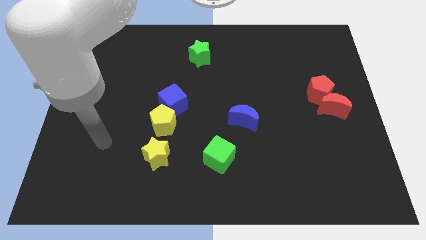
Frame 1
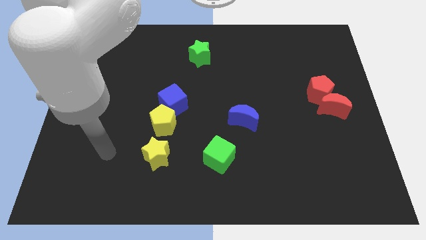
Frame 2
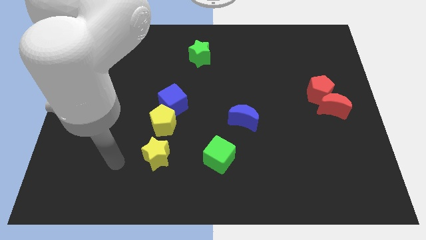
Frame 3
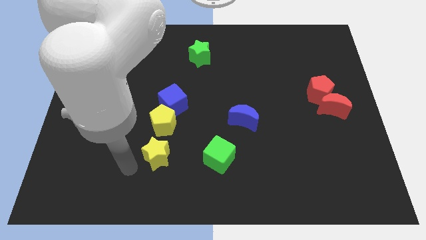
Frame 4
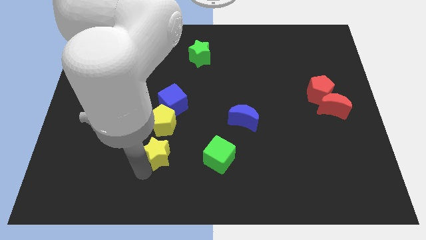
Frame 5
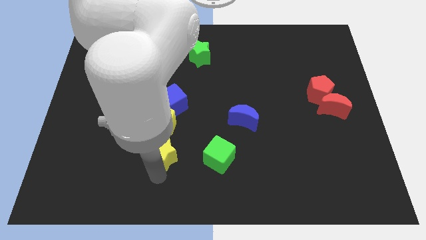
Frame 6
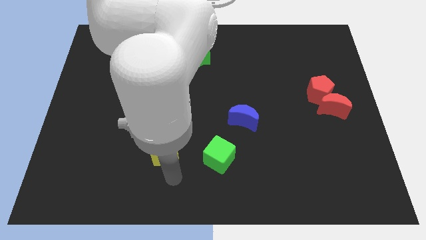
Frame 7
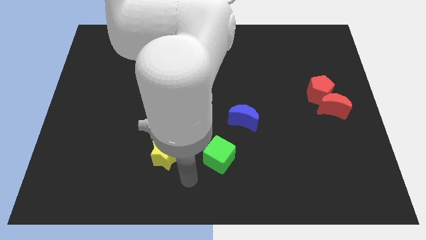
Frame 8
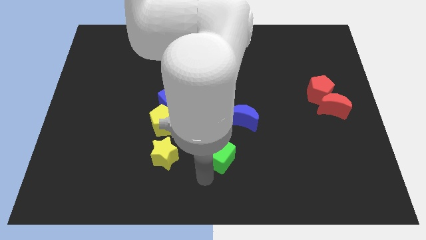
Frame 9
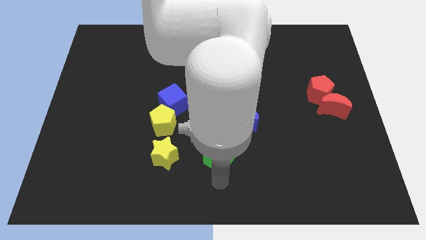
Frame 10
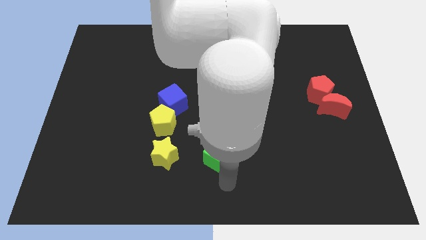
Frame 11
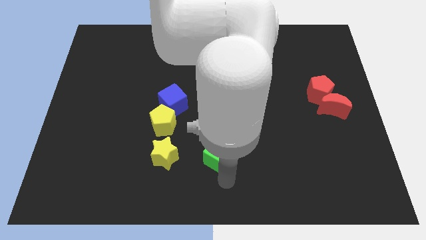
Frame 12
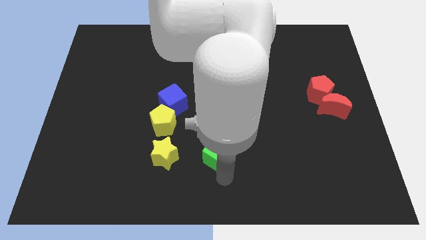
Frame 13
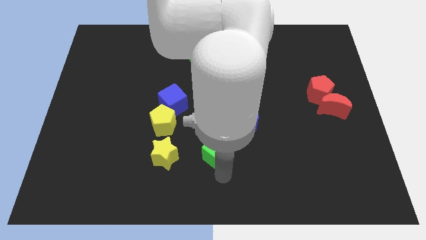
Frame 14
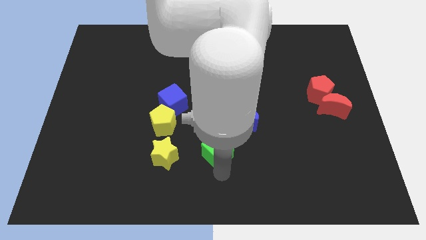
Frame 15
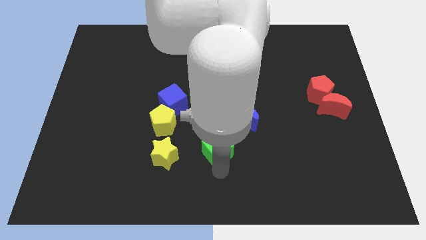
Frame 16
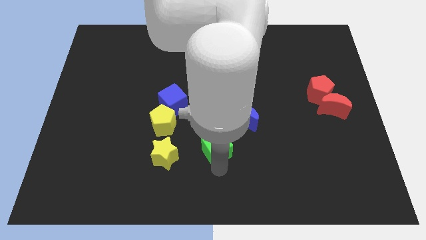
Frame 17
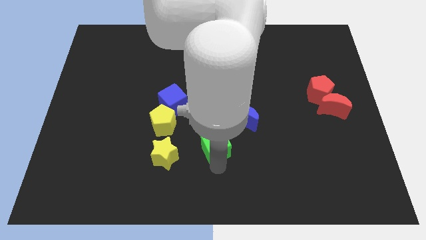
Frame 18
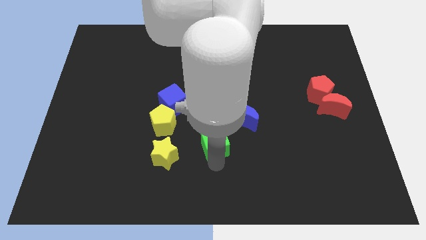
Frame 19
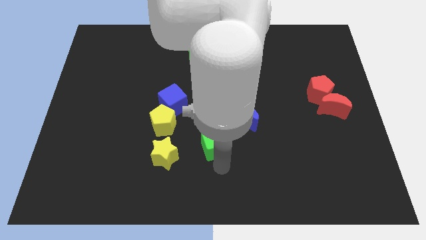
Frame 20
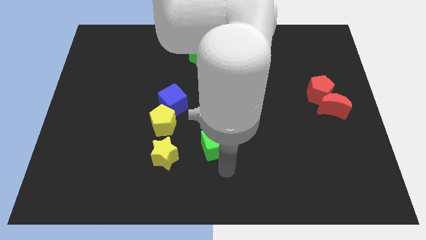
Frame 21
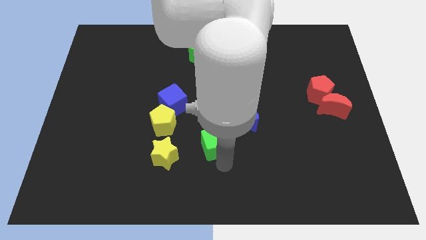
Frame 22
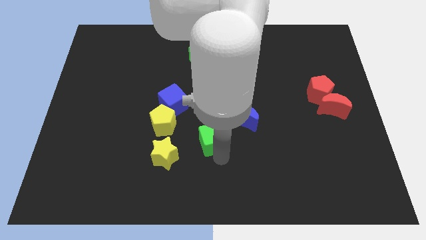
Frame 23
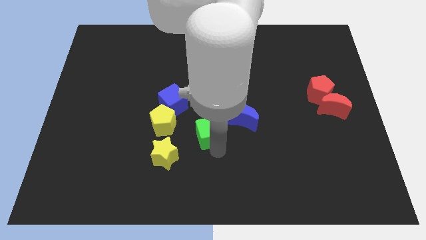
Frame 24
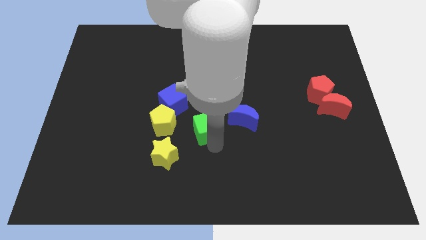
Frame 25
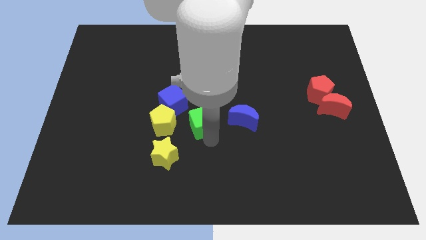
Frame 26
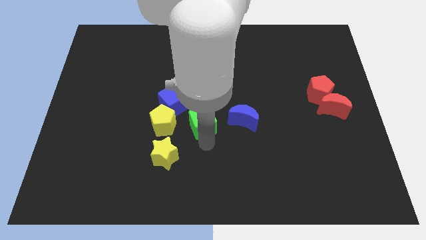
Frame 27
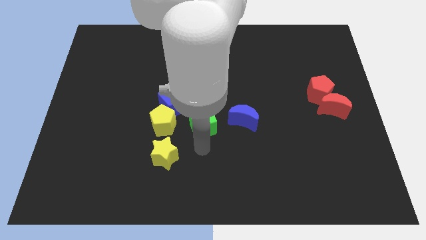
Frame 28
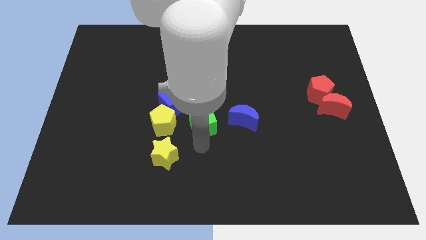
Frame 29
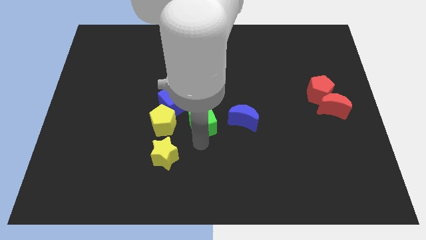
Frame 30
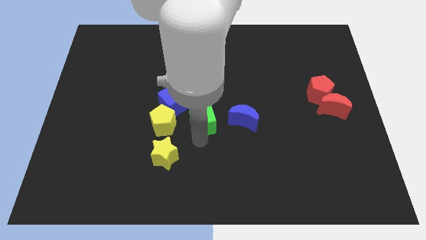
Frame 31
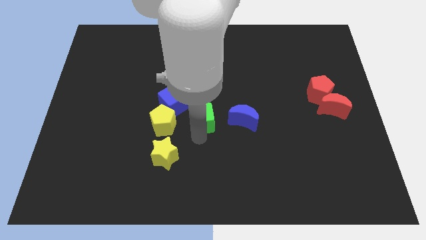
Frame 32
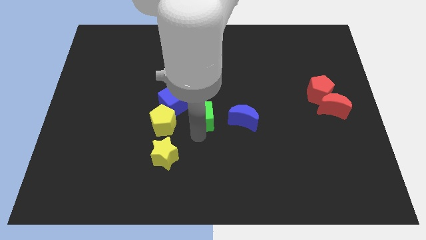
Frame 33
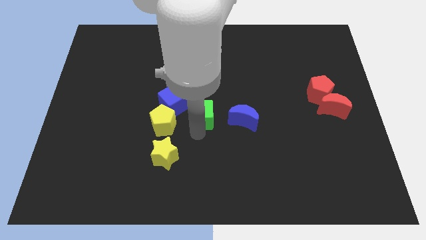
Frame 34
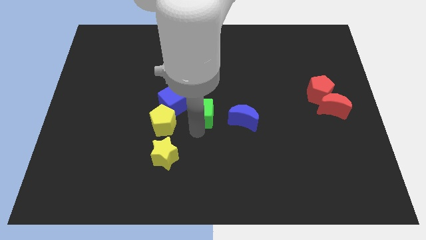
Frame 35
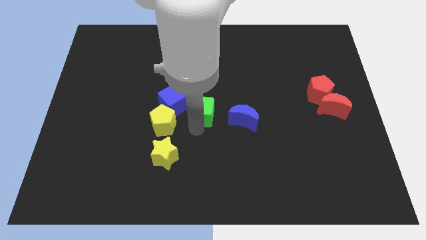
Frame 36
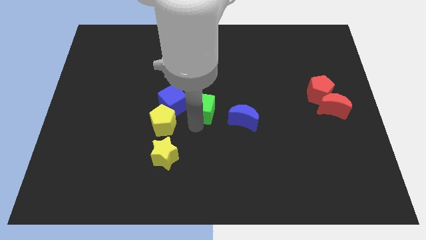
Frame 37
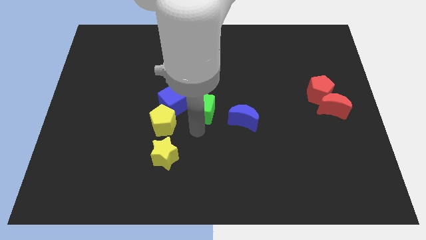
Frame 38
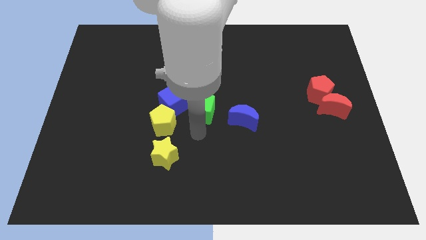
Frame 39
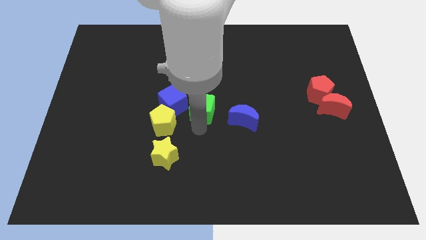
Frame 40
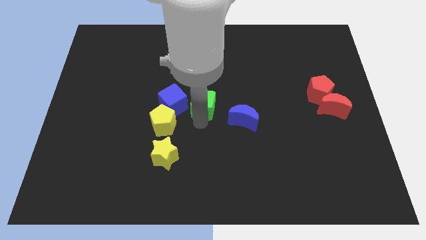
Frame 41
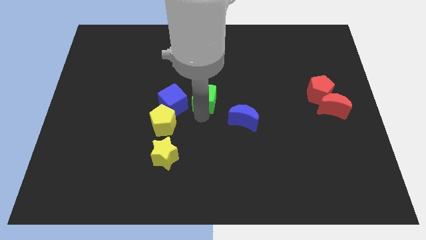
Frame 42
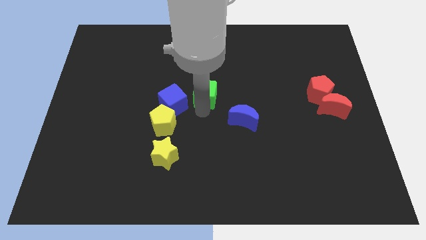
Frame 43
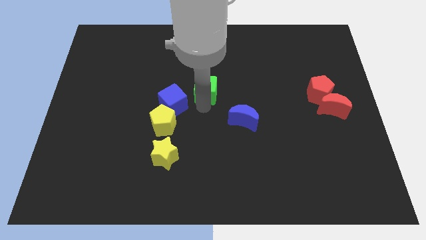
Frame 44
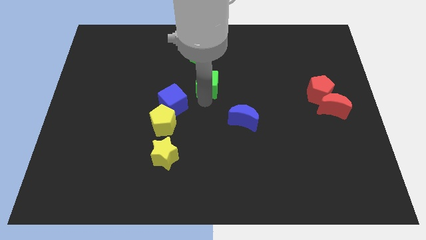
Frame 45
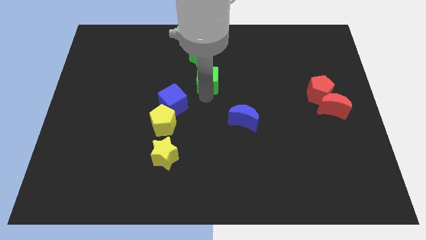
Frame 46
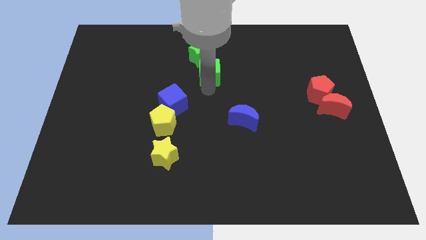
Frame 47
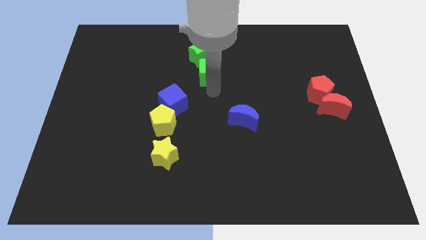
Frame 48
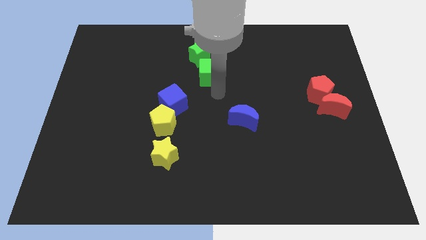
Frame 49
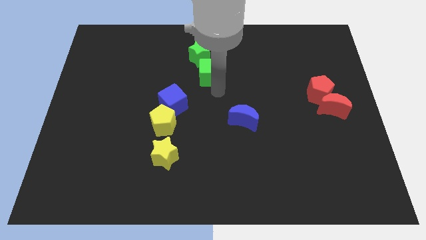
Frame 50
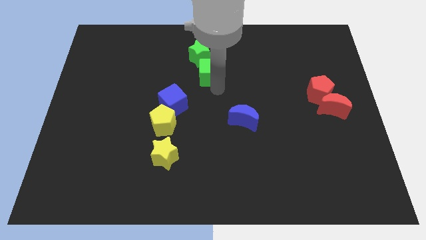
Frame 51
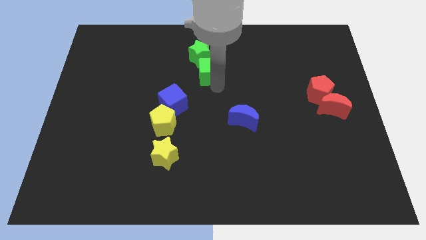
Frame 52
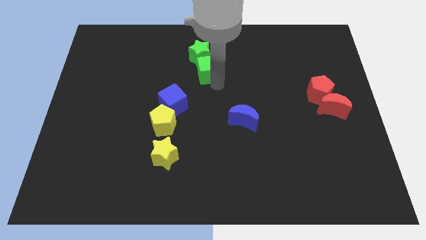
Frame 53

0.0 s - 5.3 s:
slide the green cube close to the green star

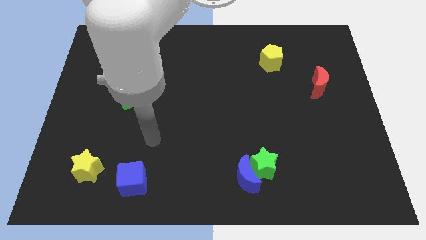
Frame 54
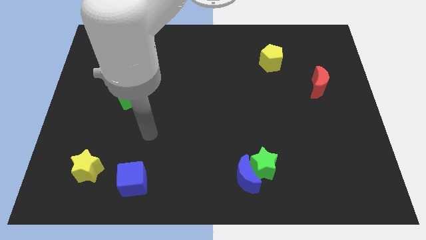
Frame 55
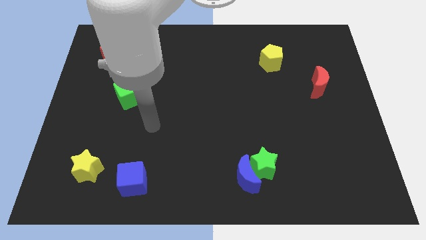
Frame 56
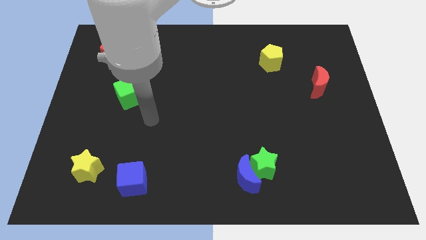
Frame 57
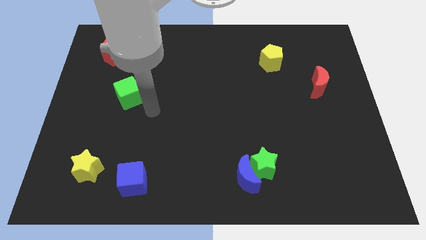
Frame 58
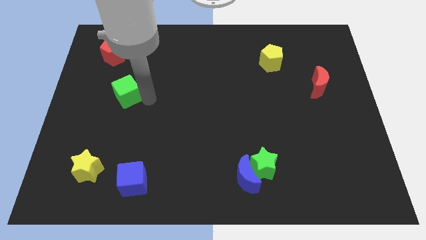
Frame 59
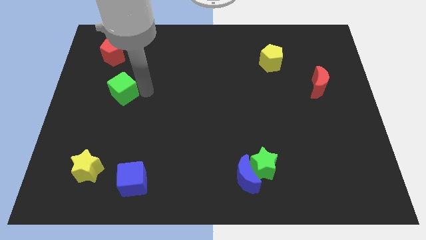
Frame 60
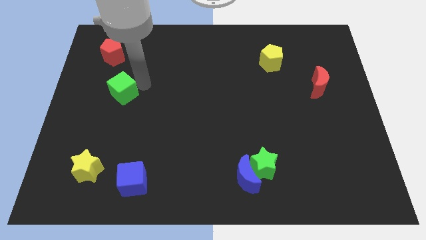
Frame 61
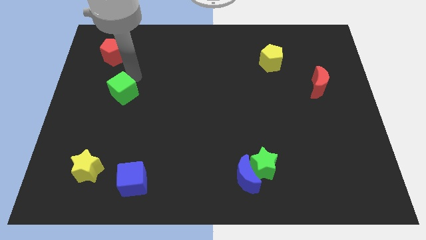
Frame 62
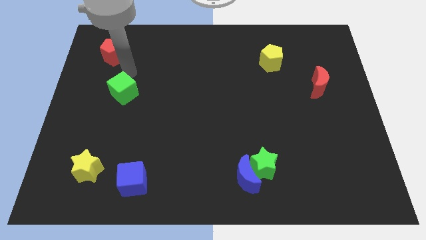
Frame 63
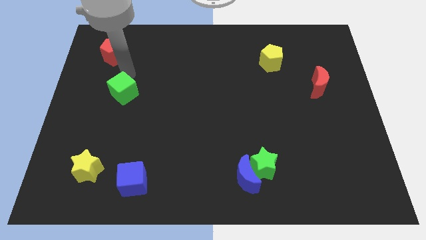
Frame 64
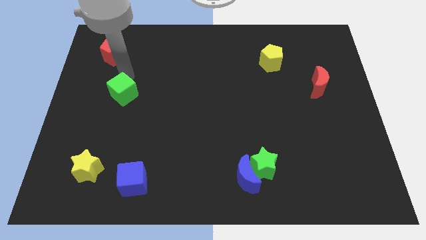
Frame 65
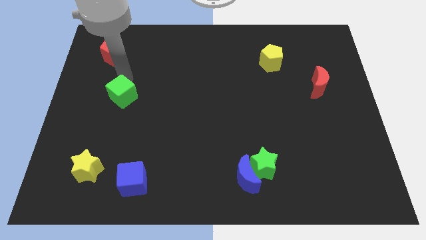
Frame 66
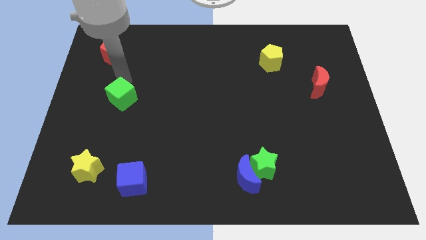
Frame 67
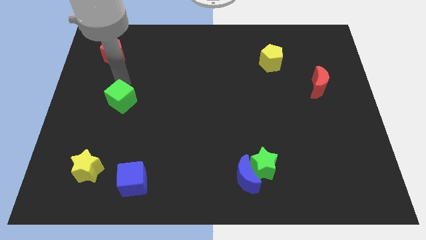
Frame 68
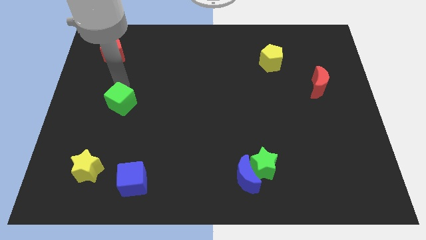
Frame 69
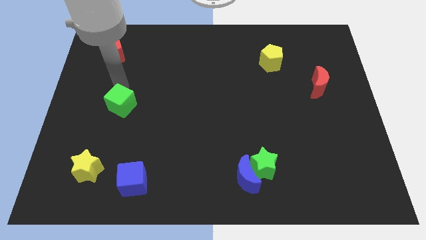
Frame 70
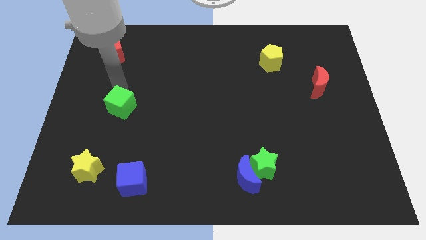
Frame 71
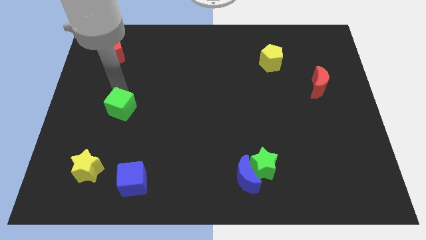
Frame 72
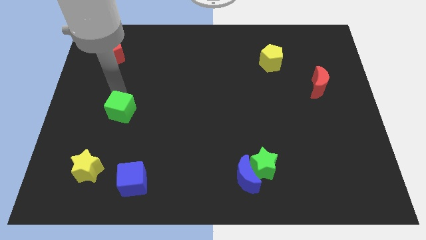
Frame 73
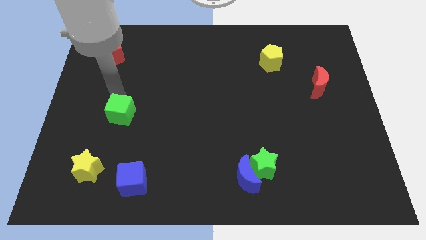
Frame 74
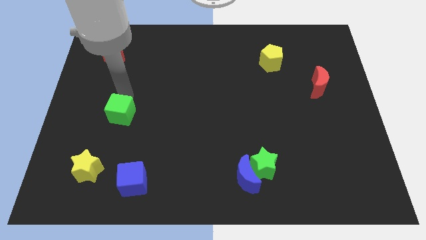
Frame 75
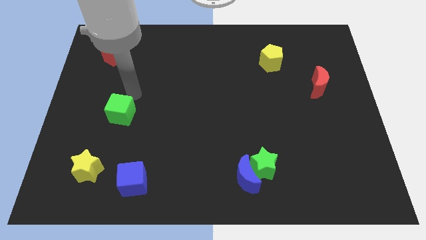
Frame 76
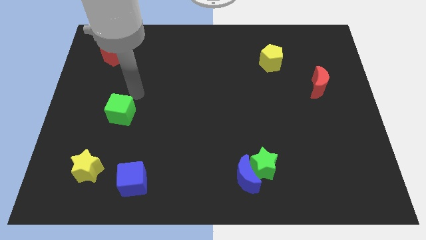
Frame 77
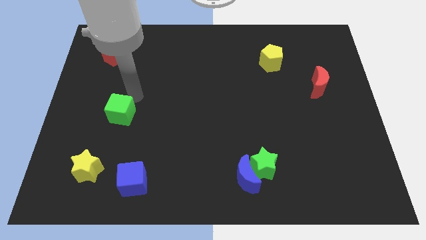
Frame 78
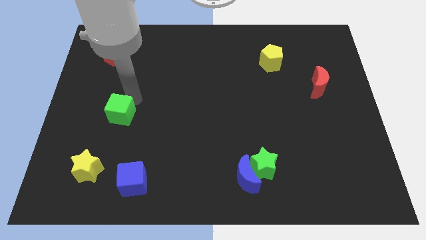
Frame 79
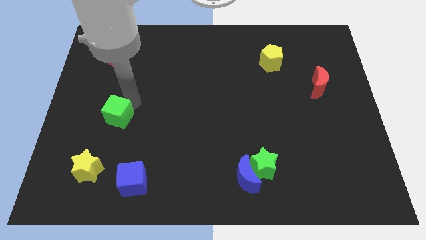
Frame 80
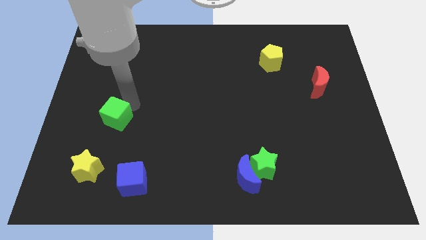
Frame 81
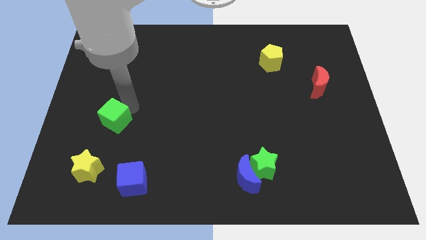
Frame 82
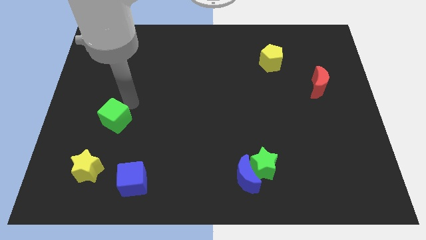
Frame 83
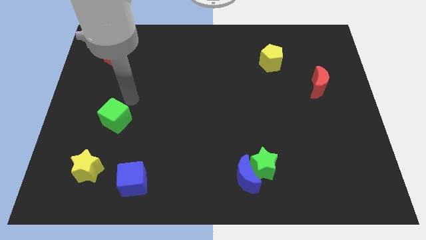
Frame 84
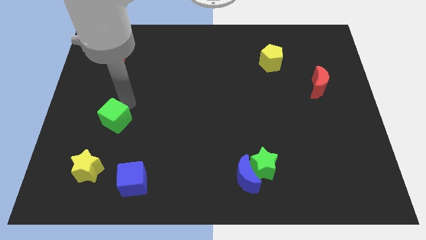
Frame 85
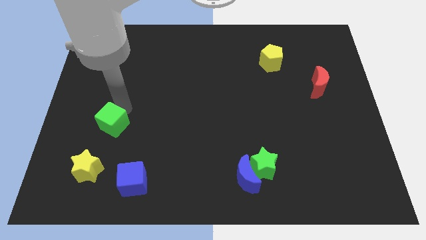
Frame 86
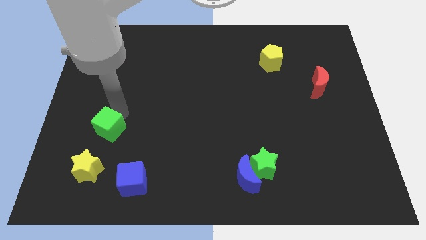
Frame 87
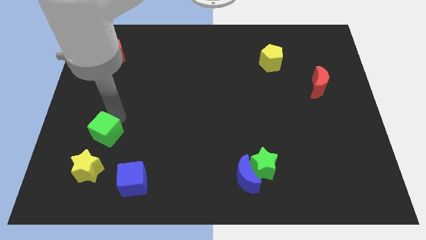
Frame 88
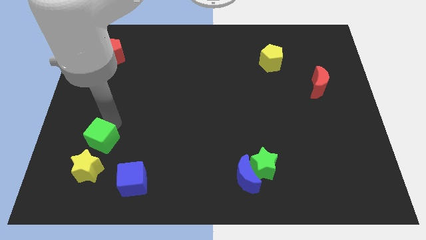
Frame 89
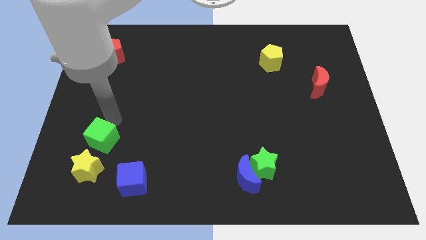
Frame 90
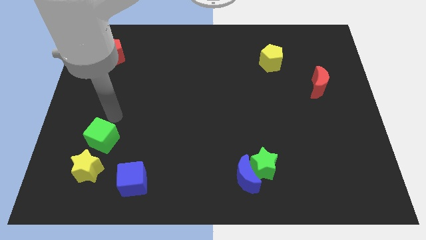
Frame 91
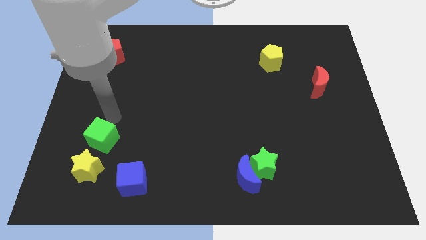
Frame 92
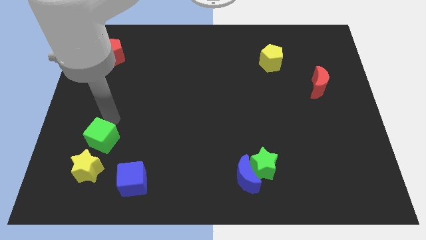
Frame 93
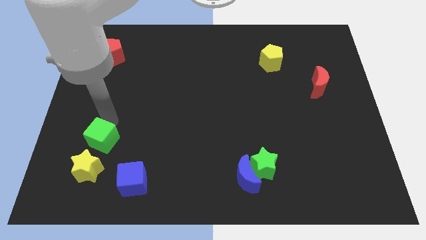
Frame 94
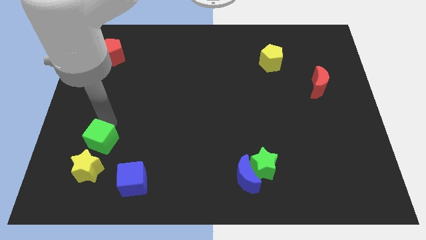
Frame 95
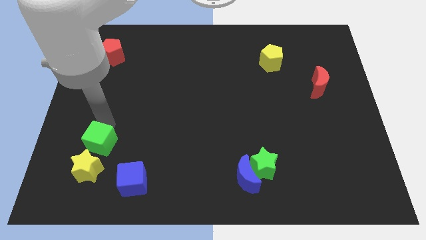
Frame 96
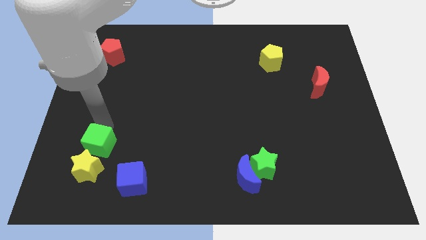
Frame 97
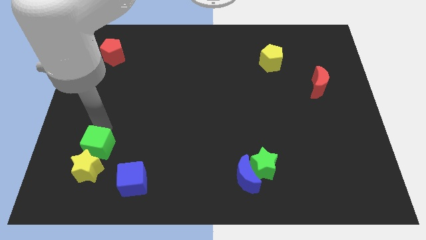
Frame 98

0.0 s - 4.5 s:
slide the green cube towards the yellow star
